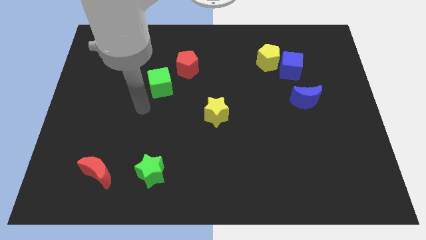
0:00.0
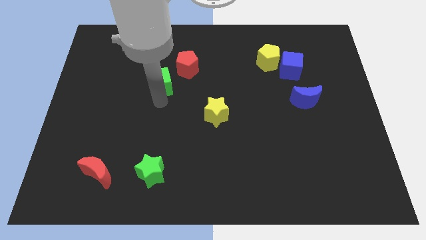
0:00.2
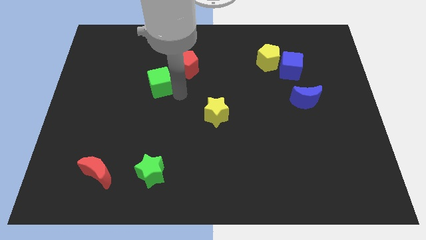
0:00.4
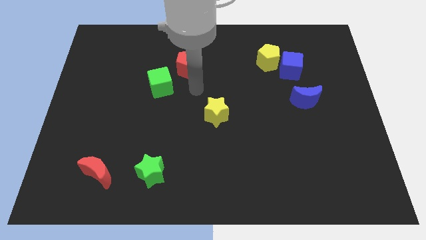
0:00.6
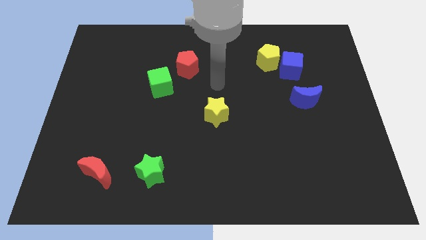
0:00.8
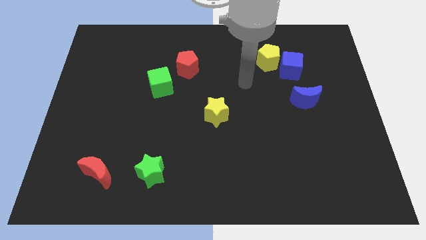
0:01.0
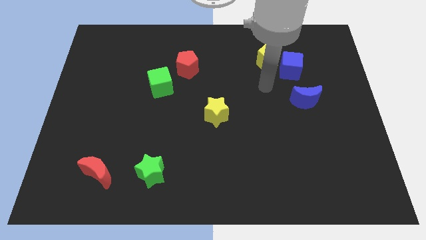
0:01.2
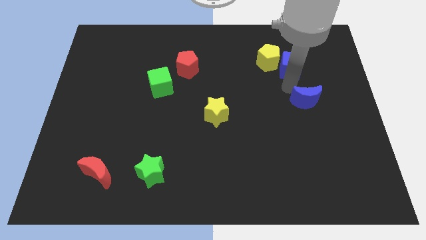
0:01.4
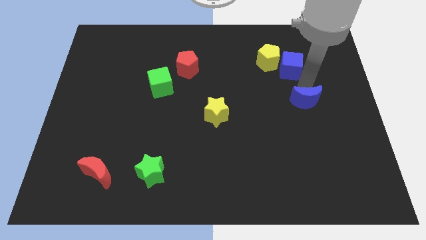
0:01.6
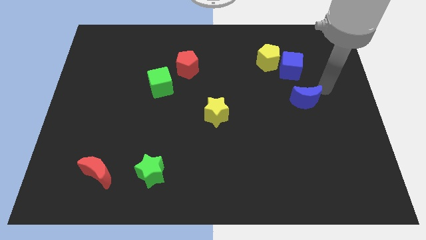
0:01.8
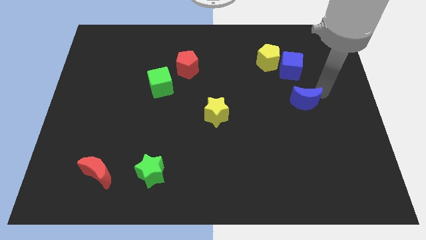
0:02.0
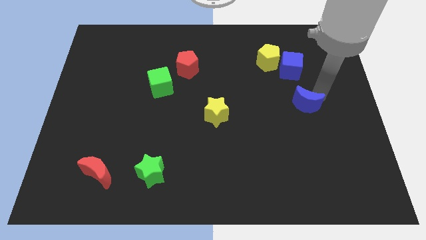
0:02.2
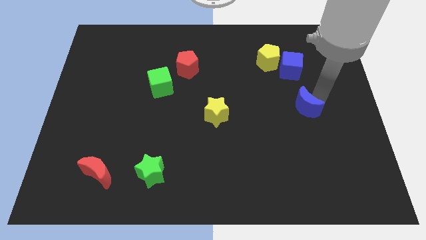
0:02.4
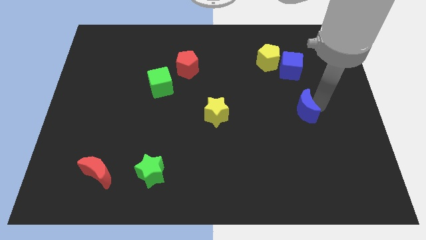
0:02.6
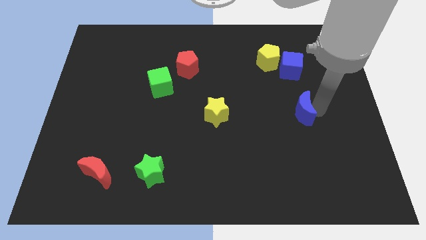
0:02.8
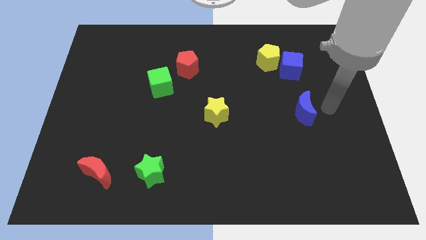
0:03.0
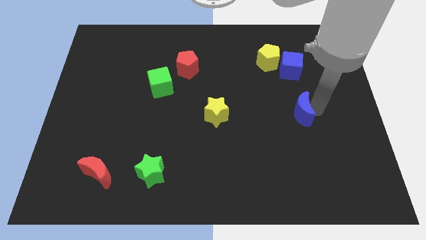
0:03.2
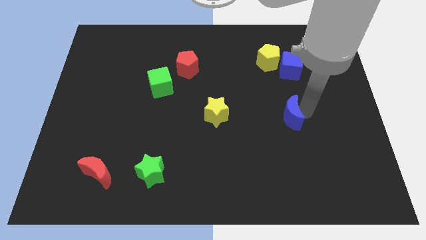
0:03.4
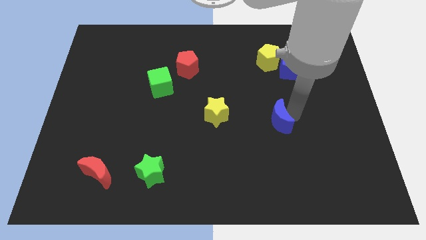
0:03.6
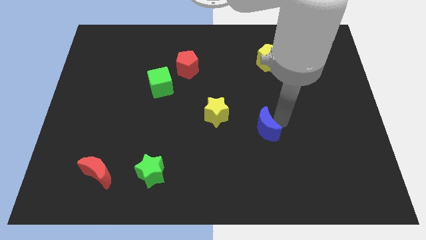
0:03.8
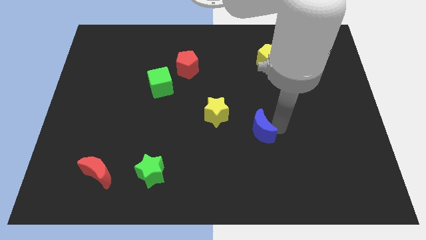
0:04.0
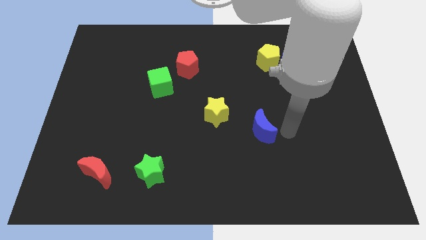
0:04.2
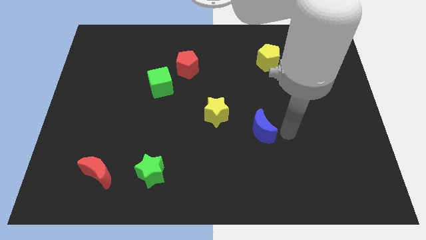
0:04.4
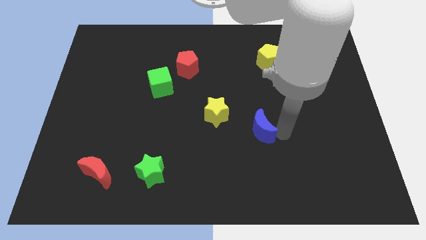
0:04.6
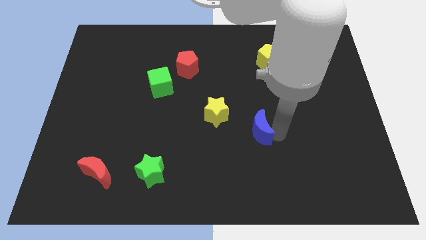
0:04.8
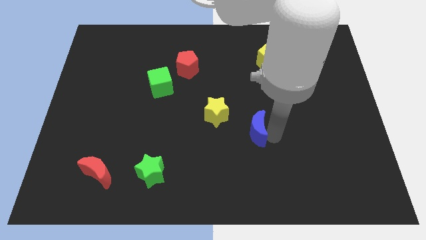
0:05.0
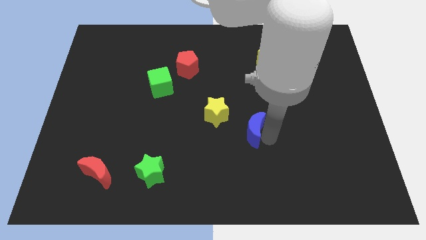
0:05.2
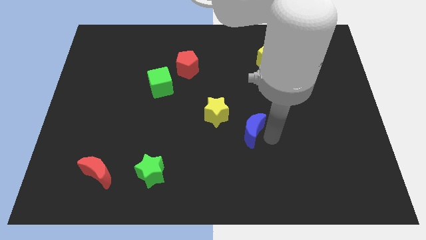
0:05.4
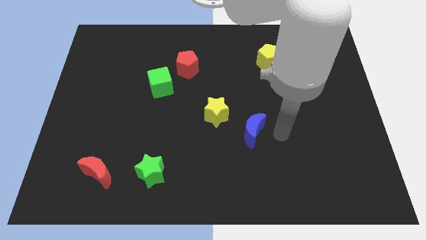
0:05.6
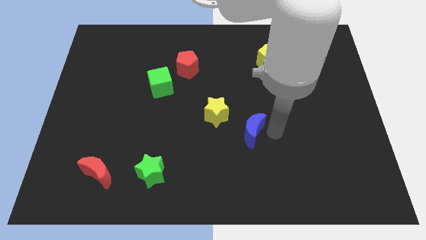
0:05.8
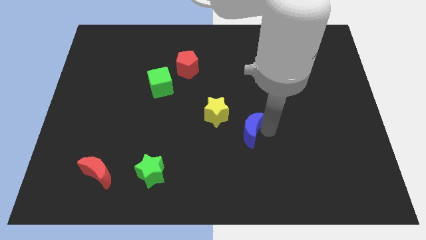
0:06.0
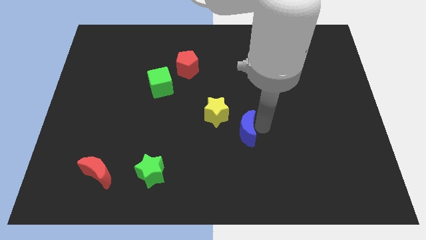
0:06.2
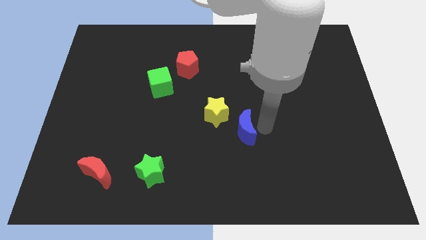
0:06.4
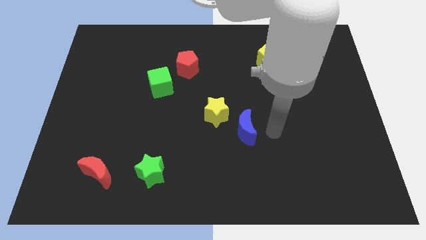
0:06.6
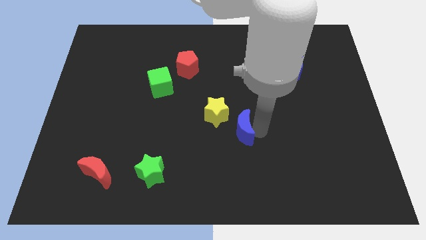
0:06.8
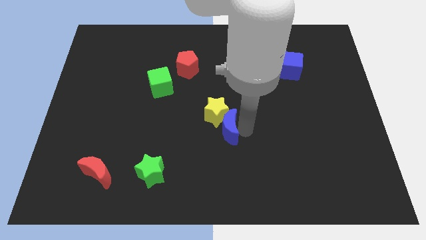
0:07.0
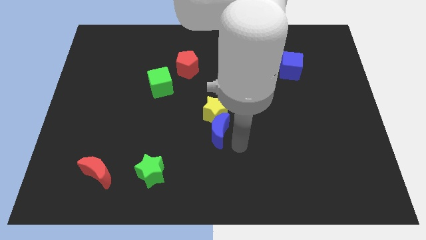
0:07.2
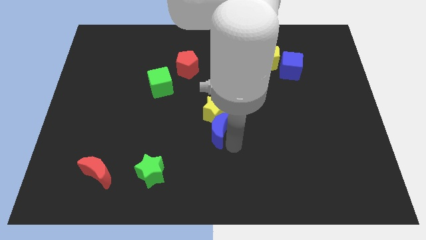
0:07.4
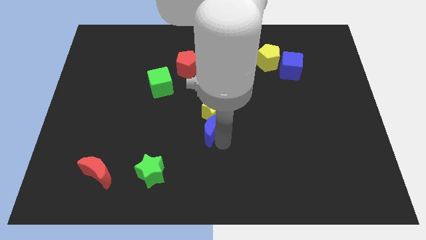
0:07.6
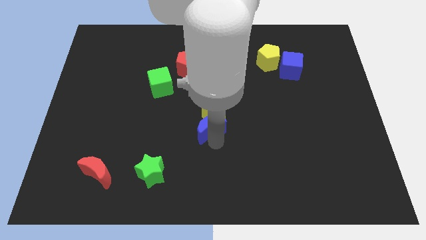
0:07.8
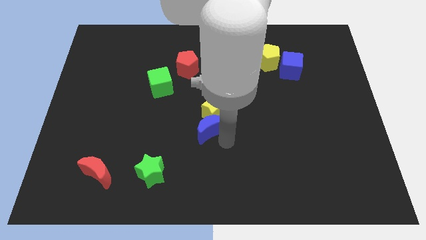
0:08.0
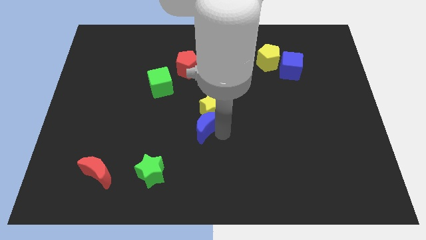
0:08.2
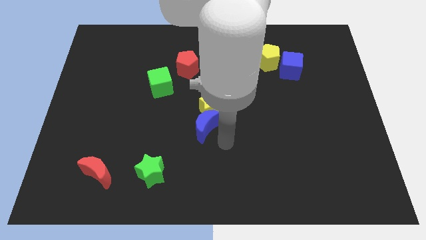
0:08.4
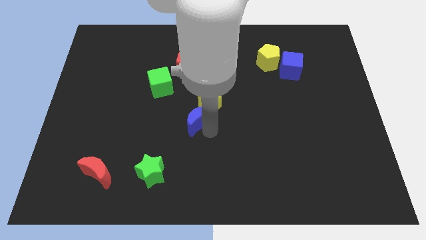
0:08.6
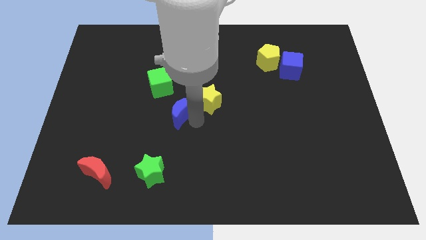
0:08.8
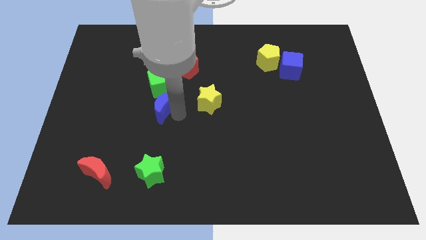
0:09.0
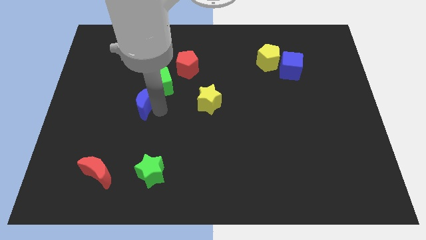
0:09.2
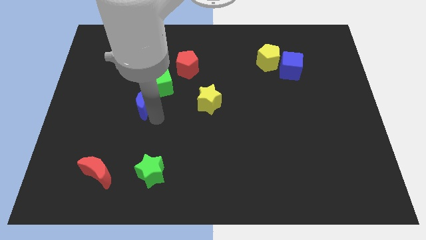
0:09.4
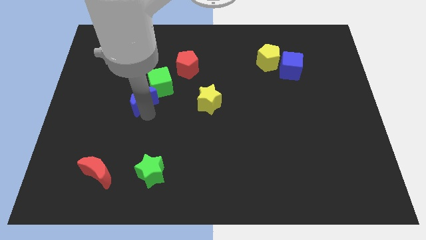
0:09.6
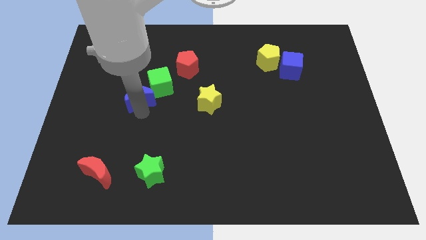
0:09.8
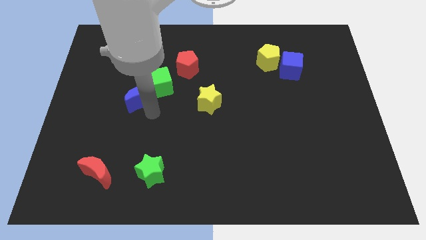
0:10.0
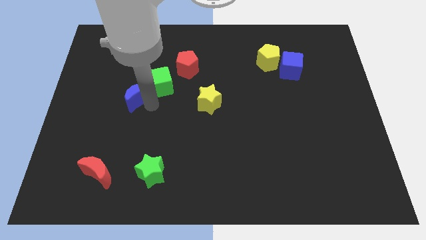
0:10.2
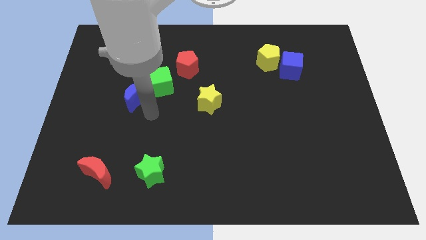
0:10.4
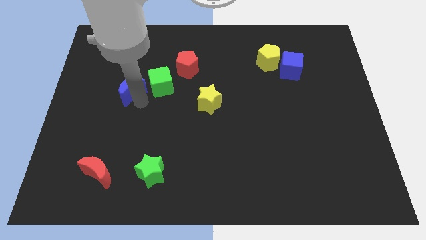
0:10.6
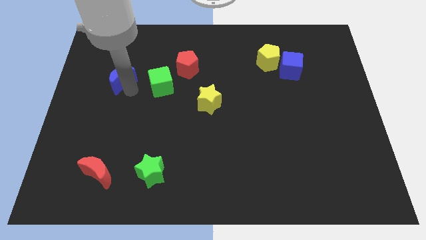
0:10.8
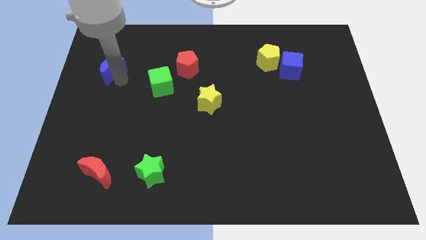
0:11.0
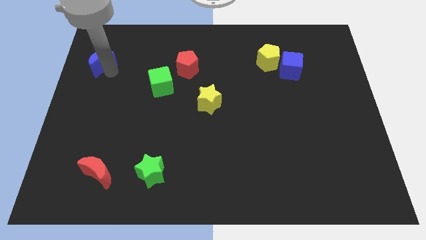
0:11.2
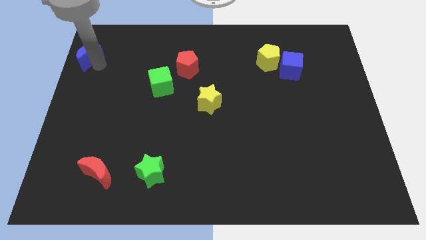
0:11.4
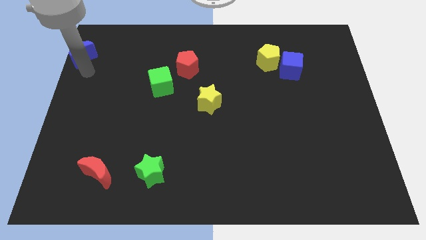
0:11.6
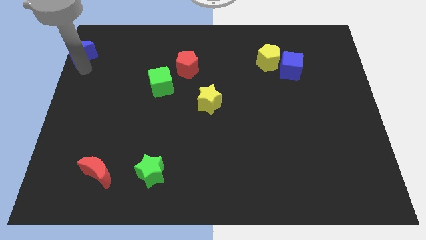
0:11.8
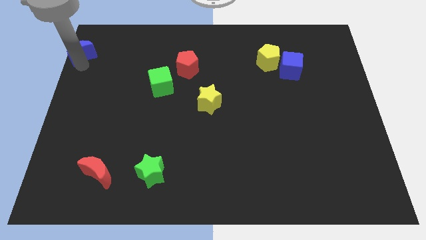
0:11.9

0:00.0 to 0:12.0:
push the blue moon to the upper left corner
